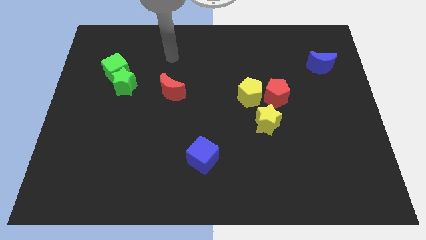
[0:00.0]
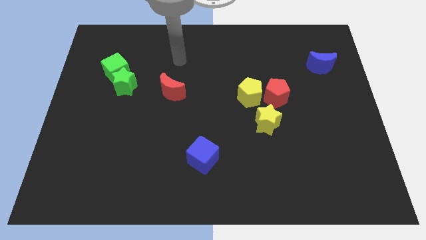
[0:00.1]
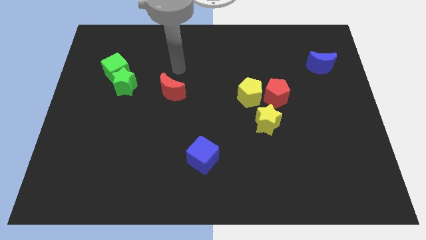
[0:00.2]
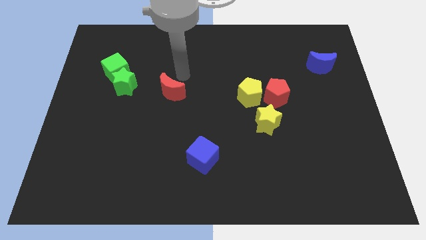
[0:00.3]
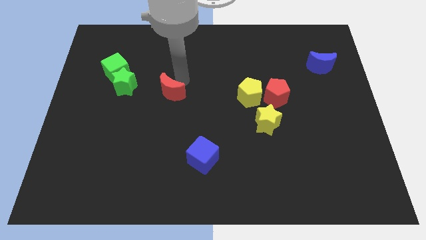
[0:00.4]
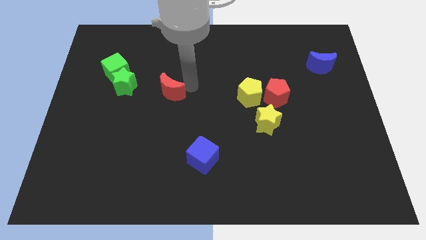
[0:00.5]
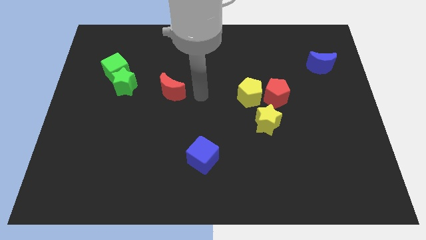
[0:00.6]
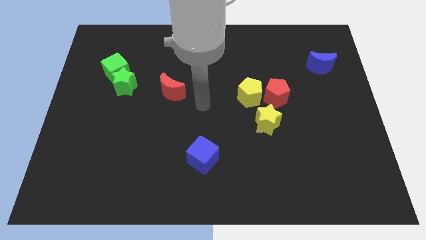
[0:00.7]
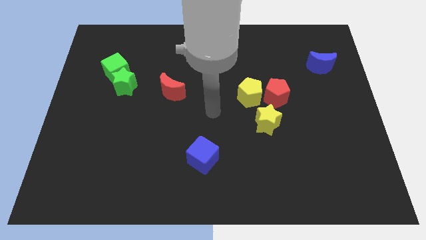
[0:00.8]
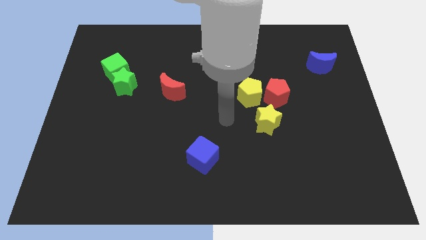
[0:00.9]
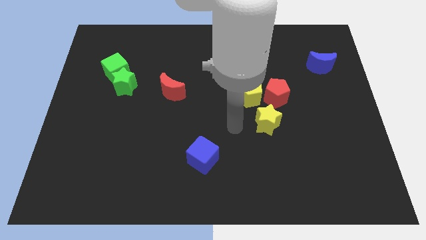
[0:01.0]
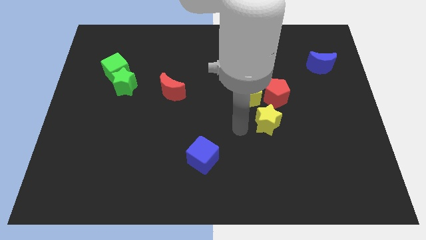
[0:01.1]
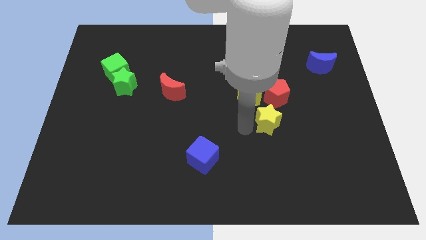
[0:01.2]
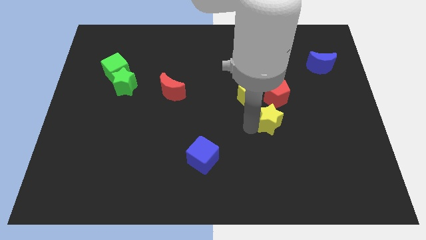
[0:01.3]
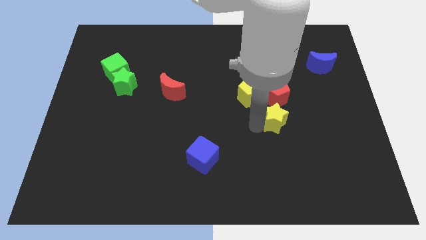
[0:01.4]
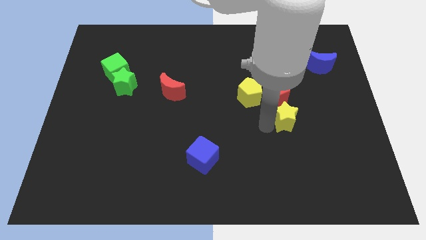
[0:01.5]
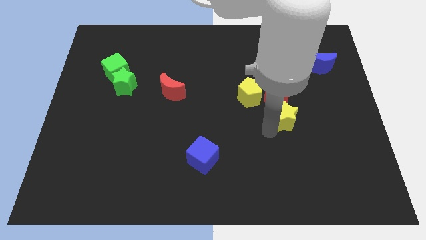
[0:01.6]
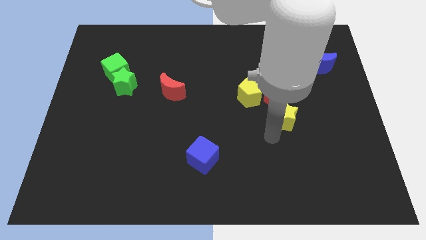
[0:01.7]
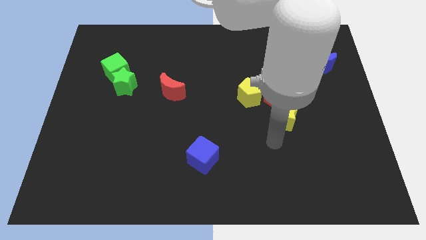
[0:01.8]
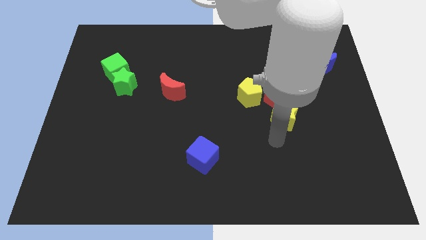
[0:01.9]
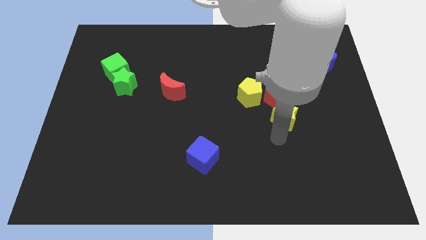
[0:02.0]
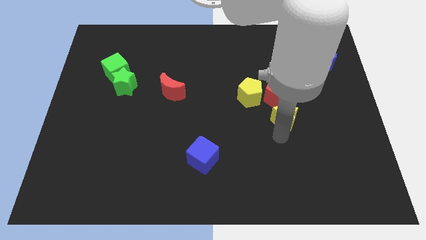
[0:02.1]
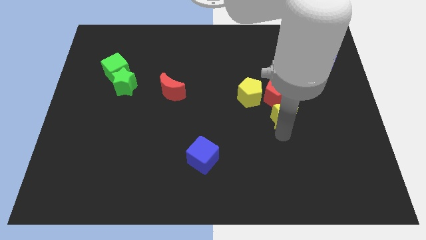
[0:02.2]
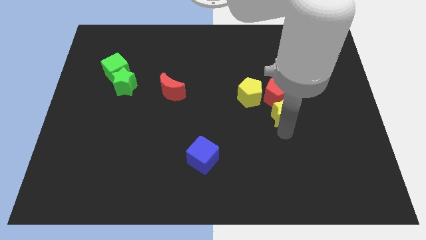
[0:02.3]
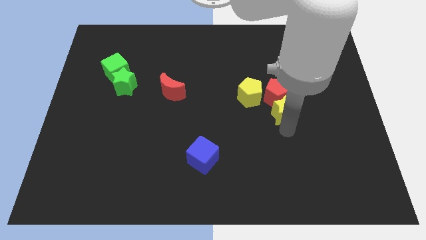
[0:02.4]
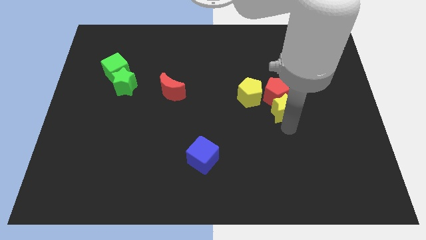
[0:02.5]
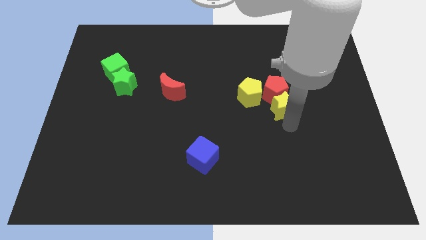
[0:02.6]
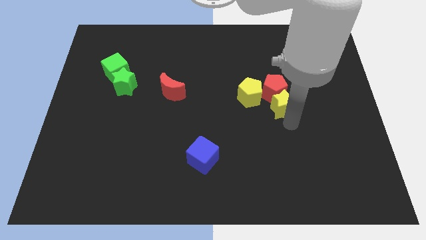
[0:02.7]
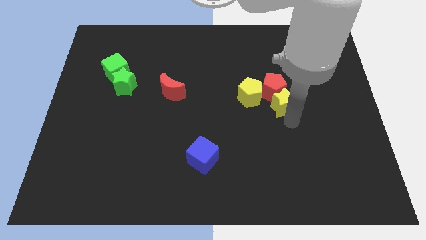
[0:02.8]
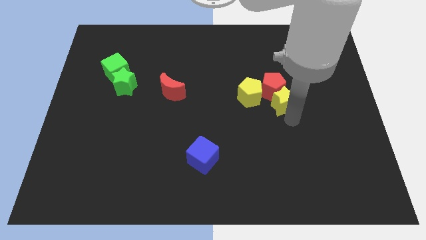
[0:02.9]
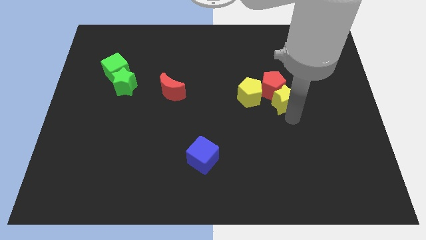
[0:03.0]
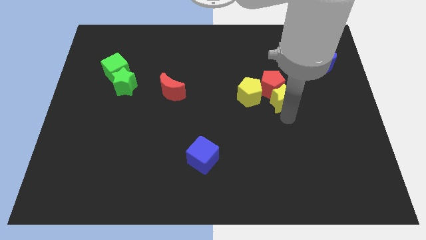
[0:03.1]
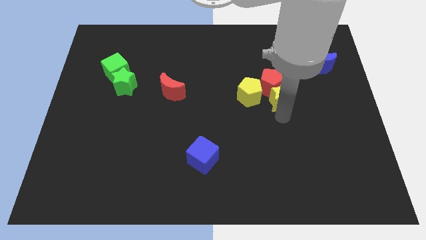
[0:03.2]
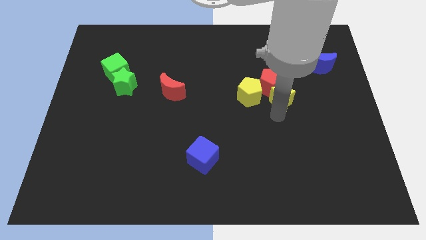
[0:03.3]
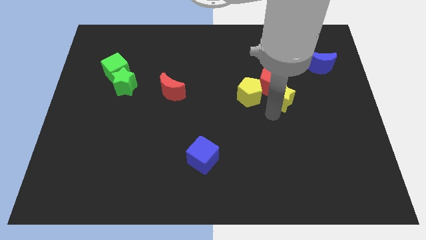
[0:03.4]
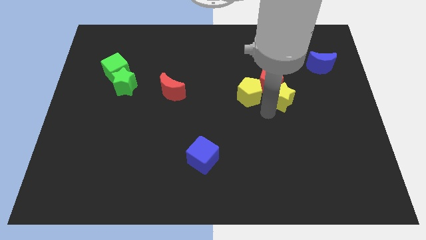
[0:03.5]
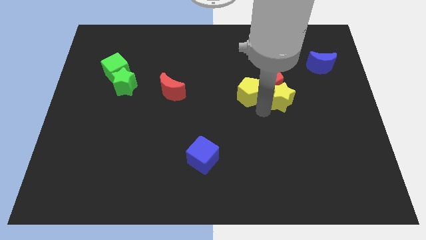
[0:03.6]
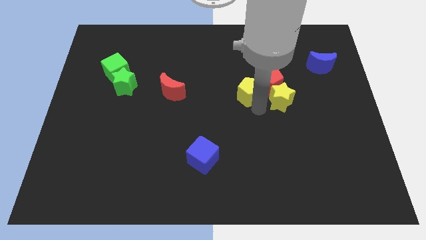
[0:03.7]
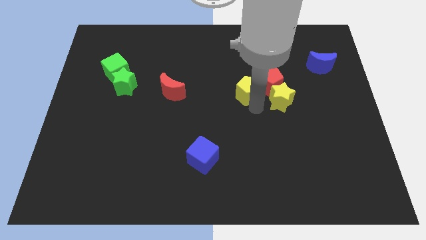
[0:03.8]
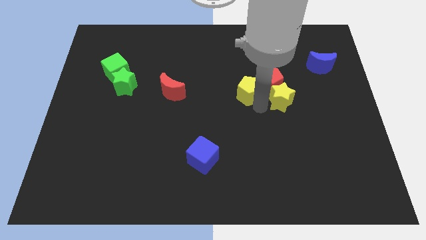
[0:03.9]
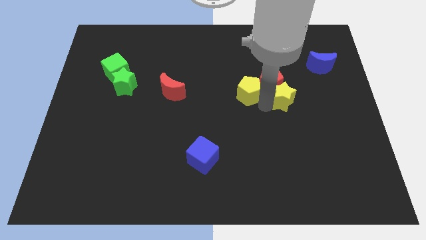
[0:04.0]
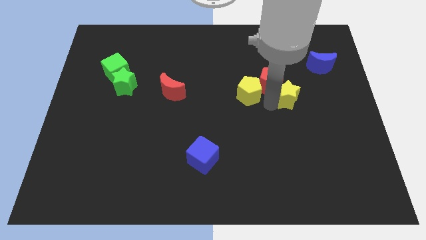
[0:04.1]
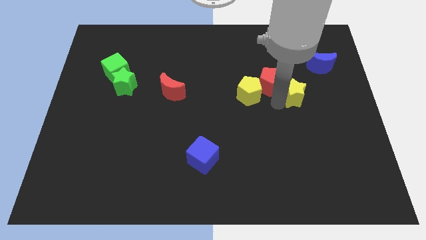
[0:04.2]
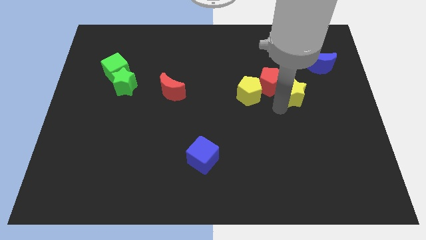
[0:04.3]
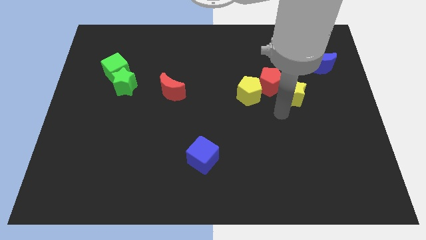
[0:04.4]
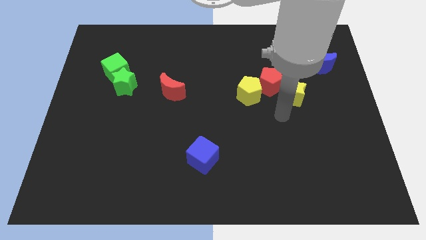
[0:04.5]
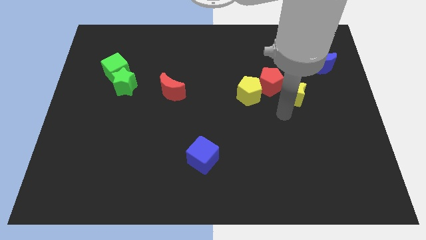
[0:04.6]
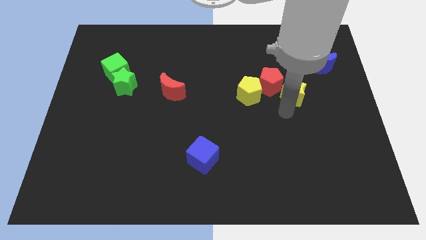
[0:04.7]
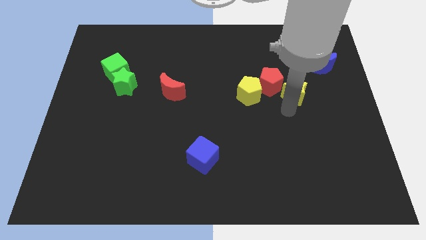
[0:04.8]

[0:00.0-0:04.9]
push the yellow star to the bottom left side of the blue moon

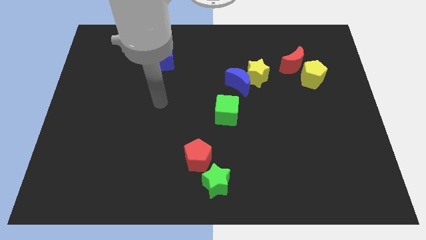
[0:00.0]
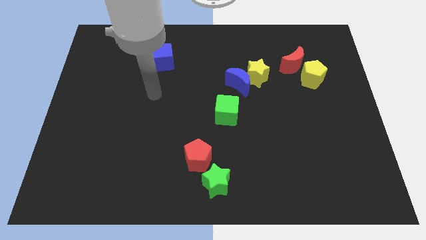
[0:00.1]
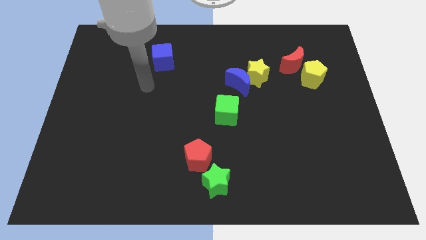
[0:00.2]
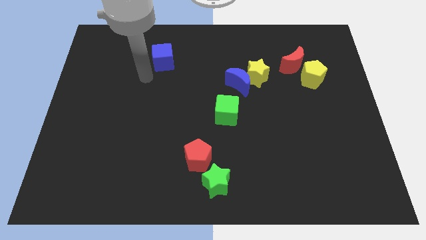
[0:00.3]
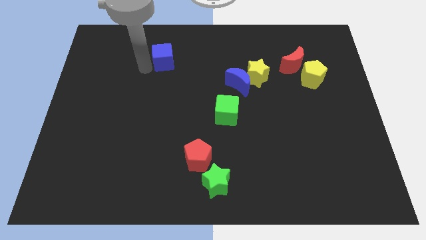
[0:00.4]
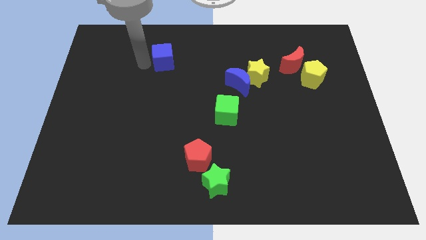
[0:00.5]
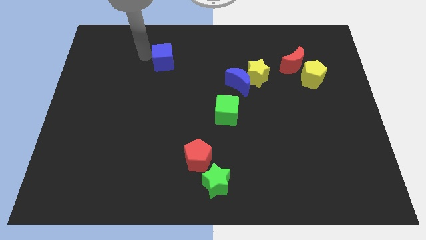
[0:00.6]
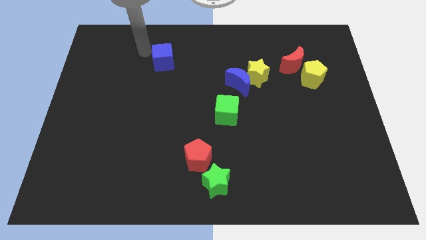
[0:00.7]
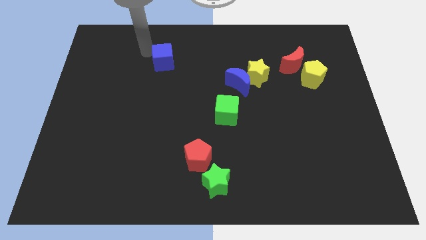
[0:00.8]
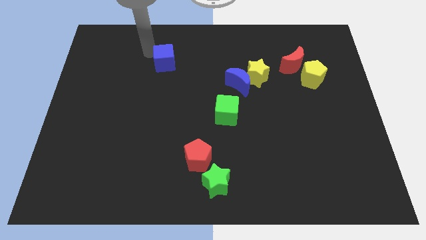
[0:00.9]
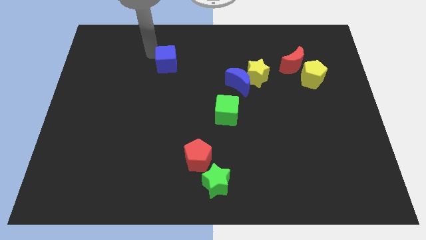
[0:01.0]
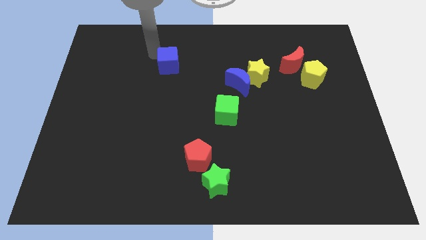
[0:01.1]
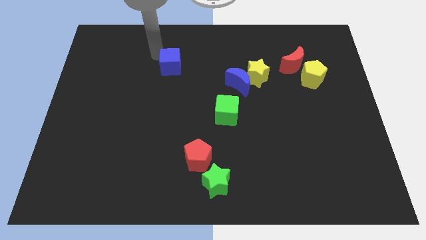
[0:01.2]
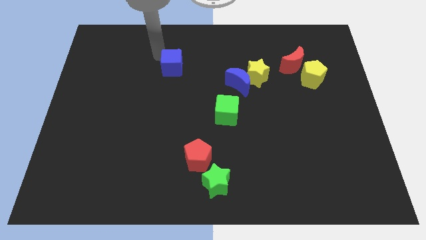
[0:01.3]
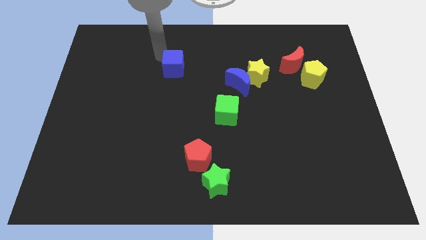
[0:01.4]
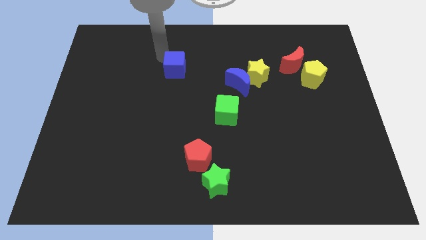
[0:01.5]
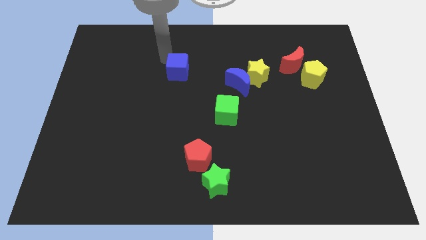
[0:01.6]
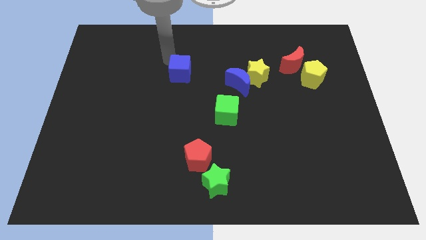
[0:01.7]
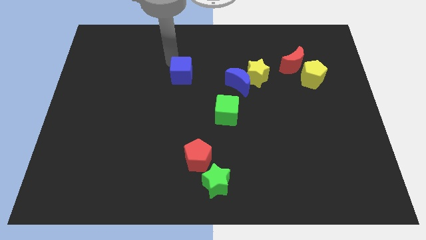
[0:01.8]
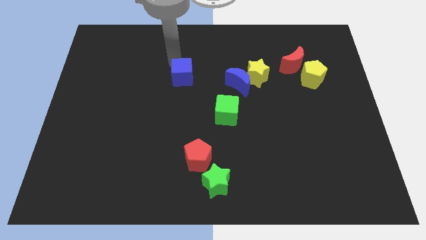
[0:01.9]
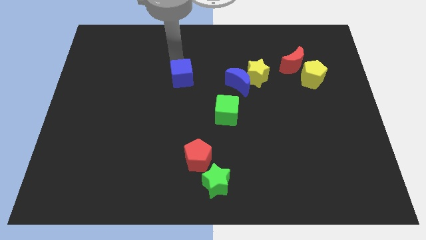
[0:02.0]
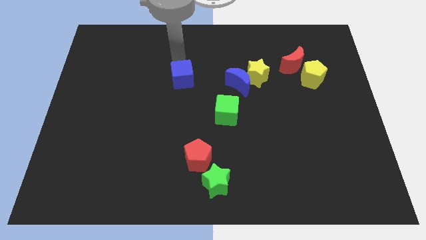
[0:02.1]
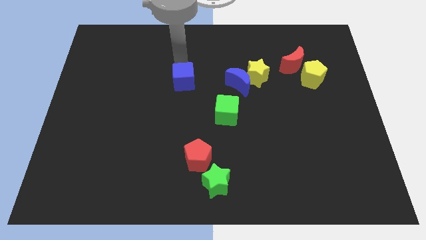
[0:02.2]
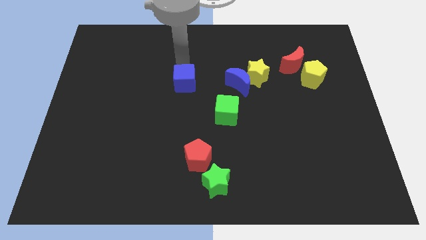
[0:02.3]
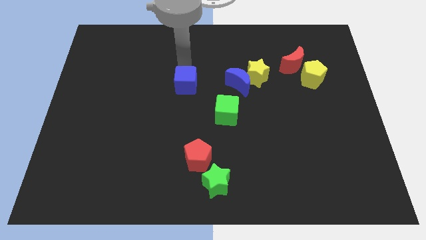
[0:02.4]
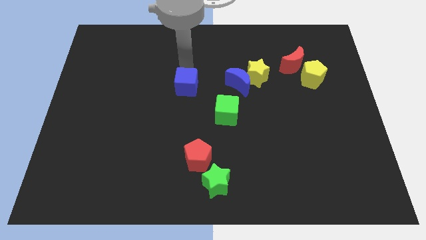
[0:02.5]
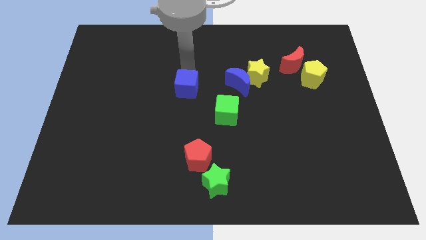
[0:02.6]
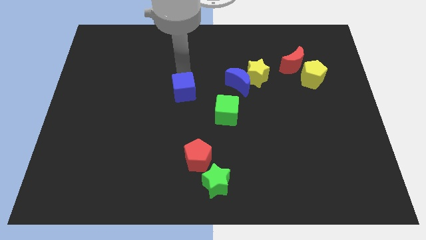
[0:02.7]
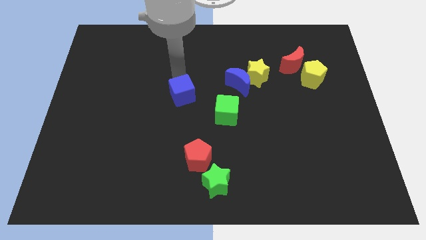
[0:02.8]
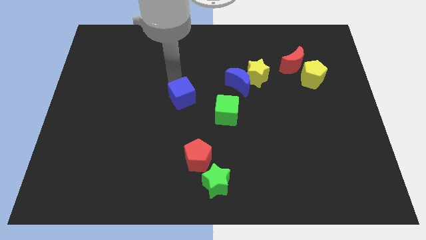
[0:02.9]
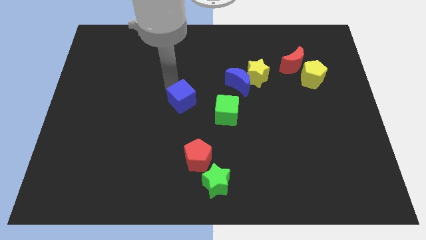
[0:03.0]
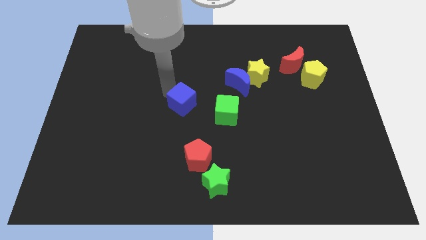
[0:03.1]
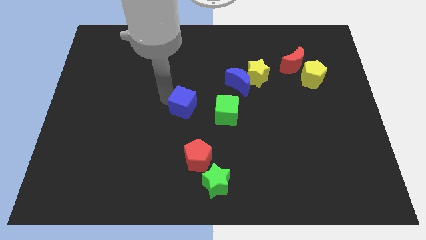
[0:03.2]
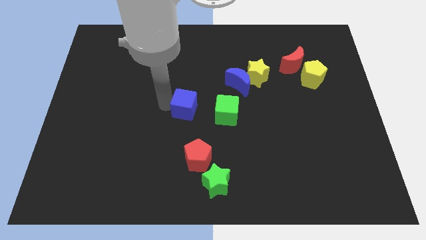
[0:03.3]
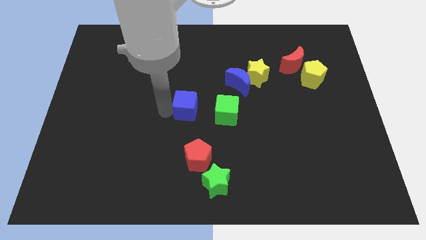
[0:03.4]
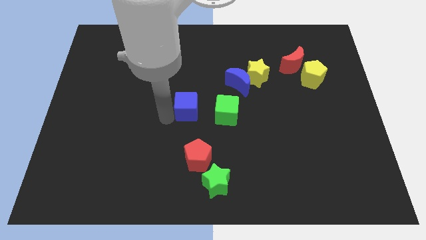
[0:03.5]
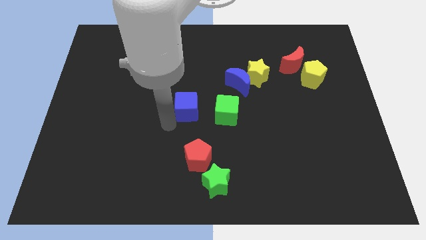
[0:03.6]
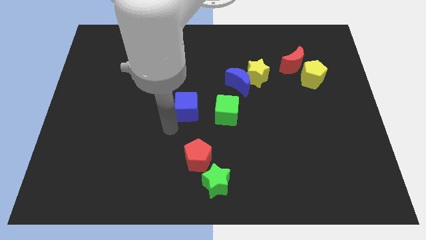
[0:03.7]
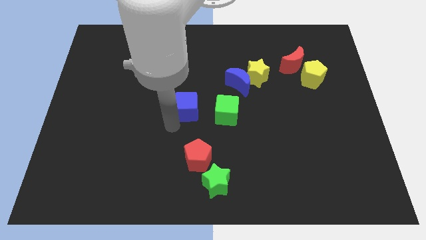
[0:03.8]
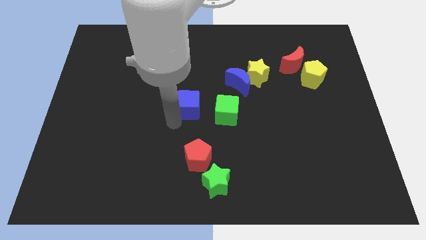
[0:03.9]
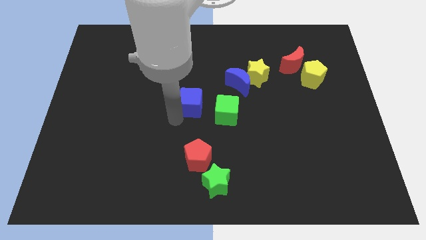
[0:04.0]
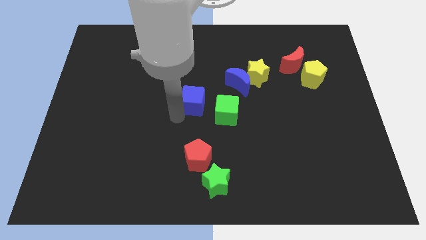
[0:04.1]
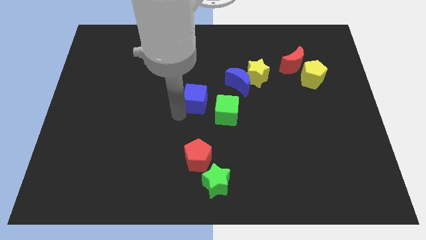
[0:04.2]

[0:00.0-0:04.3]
move the blue cube to the bottom left of the blue moon
